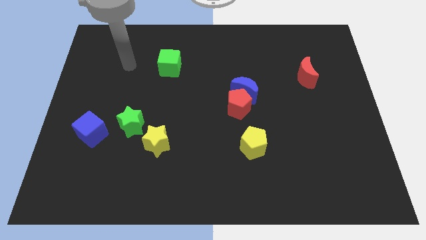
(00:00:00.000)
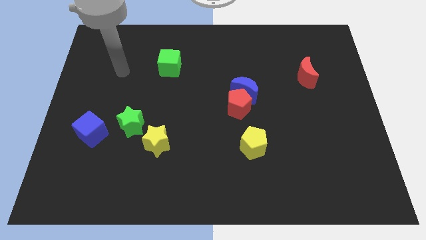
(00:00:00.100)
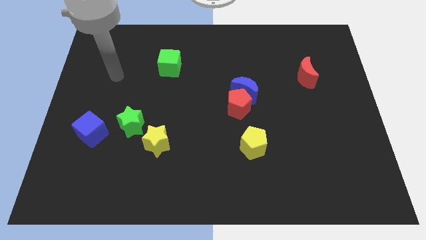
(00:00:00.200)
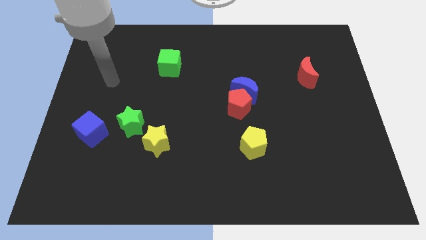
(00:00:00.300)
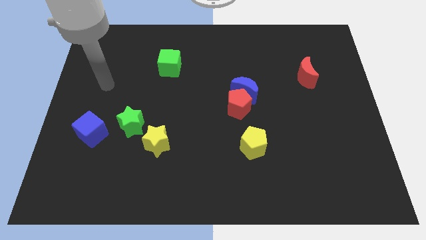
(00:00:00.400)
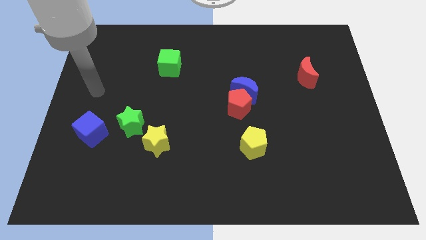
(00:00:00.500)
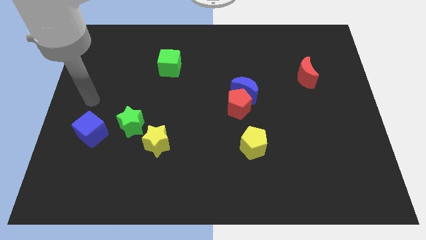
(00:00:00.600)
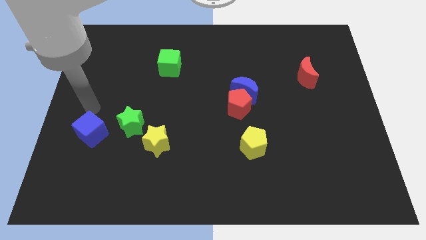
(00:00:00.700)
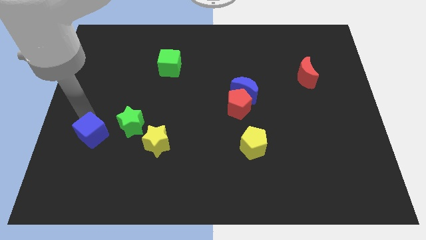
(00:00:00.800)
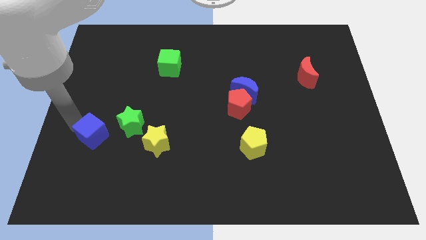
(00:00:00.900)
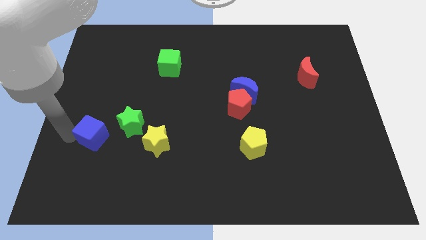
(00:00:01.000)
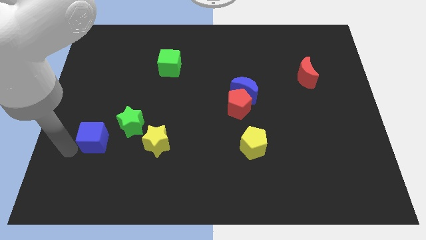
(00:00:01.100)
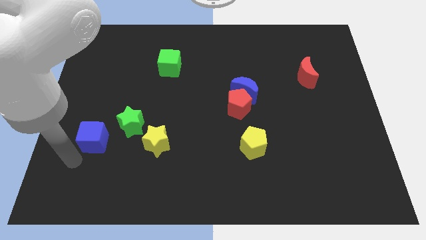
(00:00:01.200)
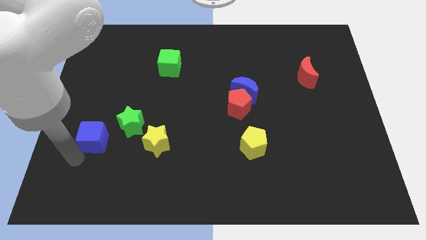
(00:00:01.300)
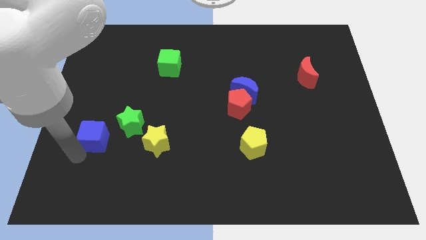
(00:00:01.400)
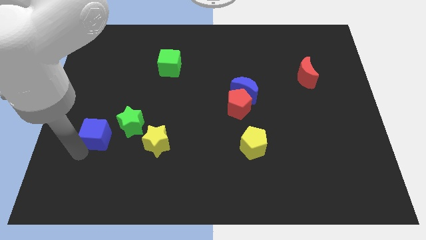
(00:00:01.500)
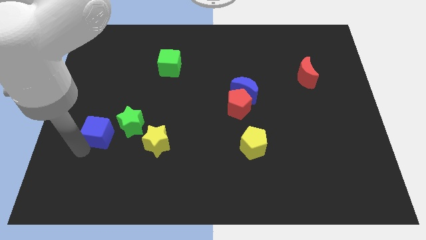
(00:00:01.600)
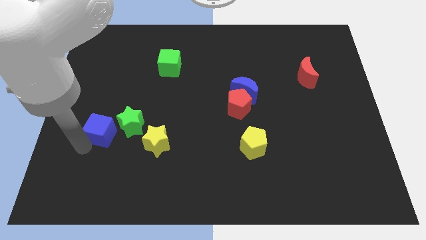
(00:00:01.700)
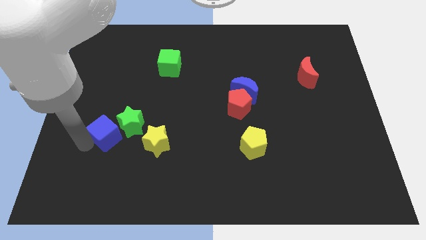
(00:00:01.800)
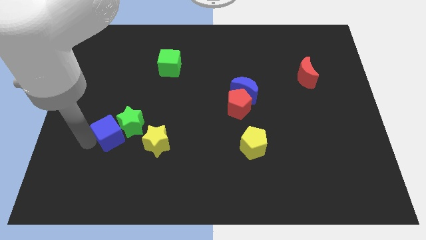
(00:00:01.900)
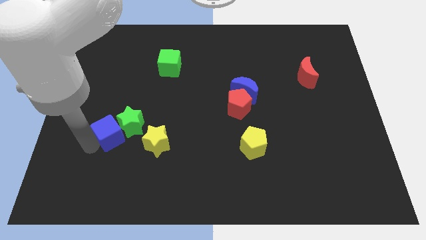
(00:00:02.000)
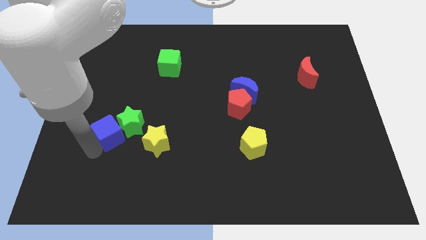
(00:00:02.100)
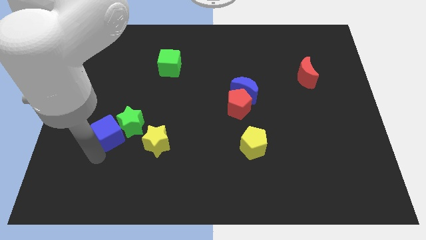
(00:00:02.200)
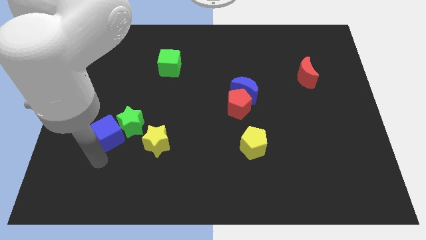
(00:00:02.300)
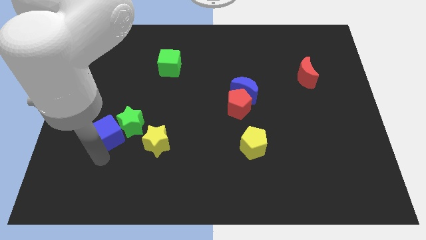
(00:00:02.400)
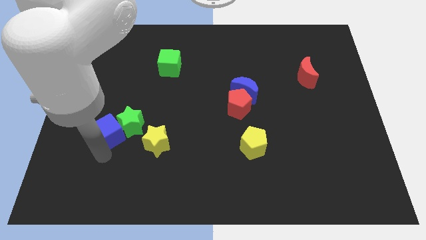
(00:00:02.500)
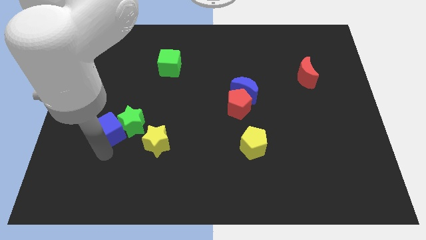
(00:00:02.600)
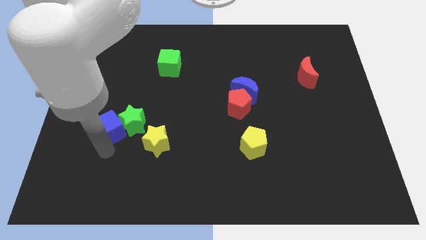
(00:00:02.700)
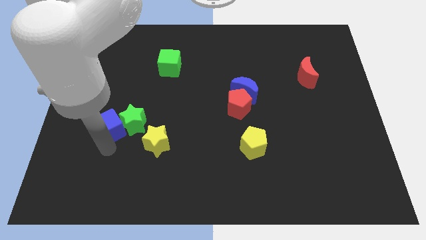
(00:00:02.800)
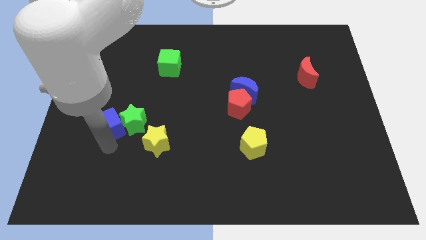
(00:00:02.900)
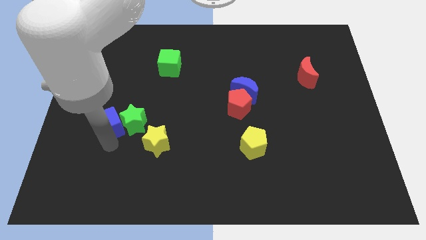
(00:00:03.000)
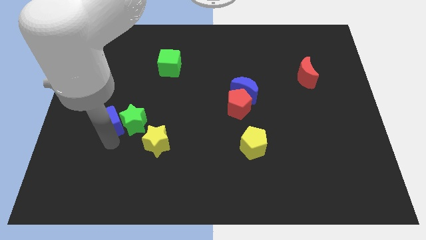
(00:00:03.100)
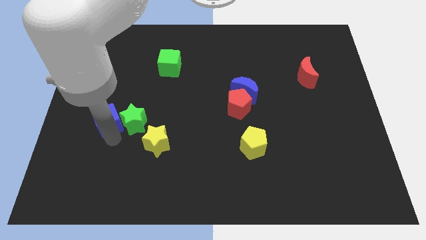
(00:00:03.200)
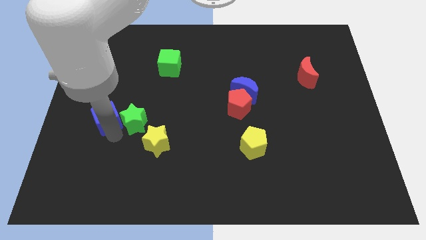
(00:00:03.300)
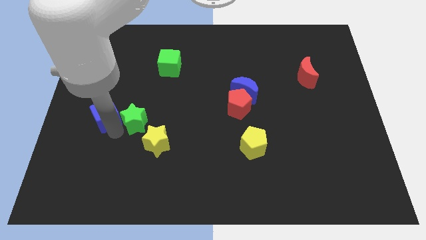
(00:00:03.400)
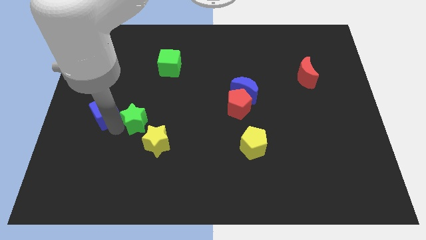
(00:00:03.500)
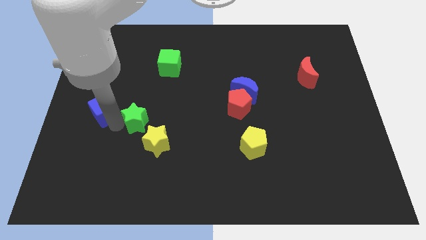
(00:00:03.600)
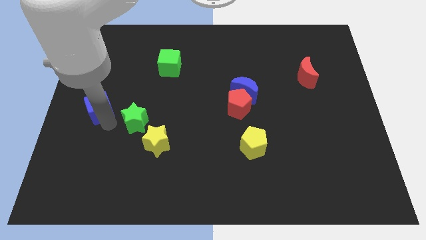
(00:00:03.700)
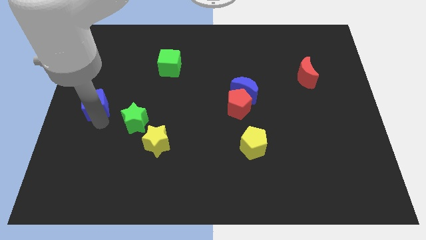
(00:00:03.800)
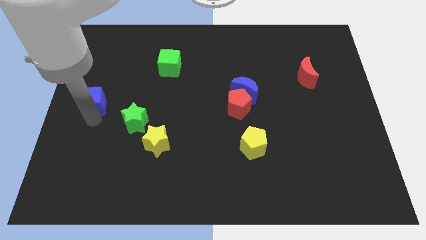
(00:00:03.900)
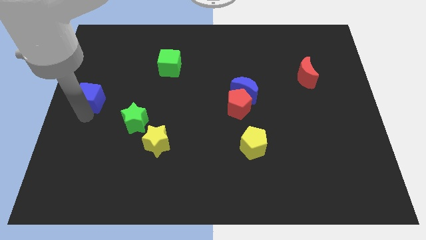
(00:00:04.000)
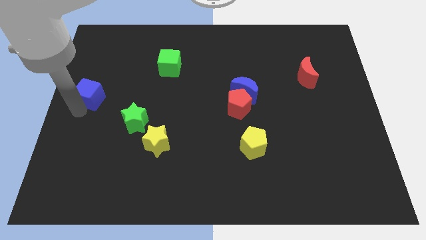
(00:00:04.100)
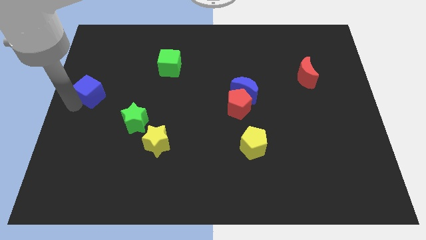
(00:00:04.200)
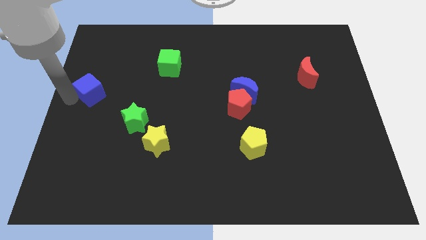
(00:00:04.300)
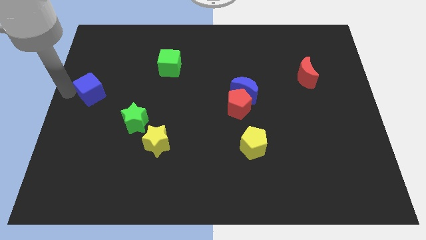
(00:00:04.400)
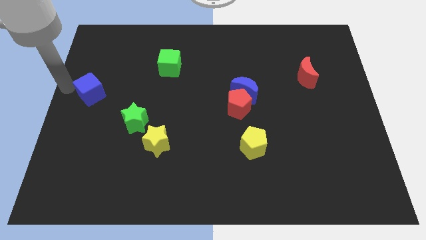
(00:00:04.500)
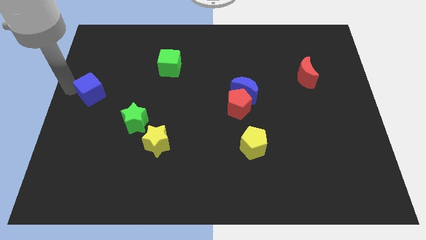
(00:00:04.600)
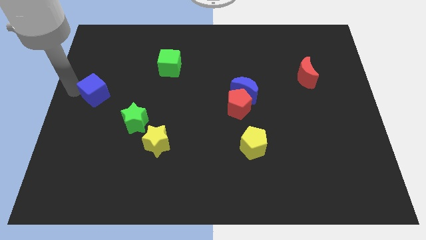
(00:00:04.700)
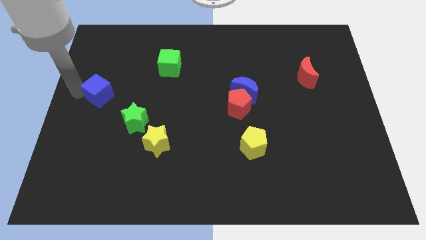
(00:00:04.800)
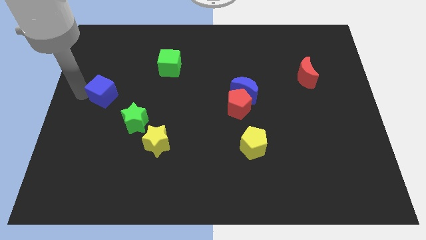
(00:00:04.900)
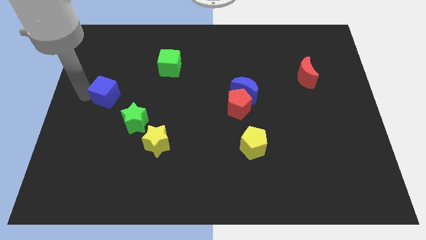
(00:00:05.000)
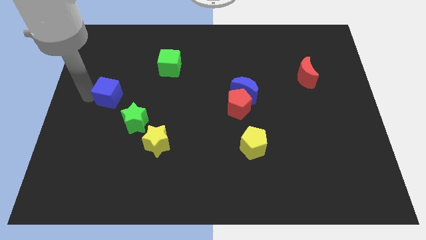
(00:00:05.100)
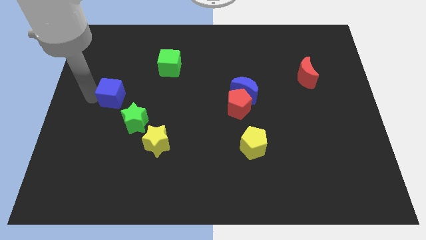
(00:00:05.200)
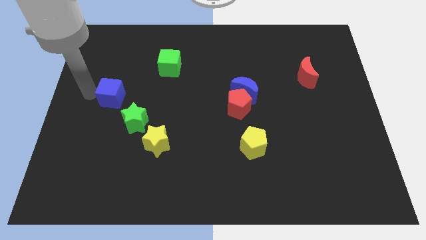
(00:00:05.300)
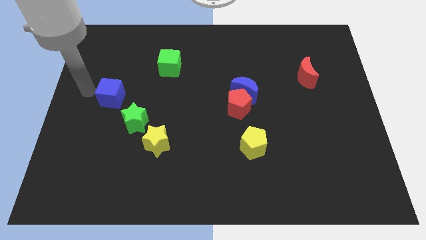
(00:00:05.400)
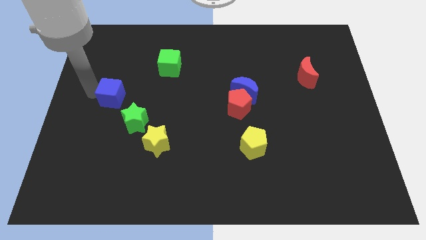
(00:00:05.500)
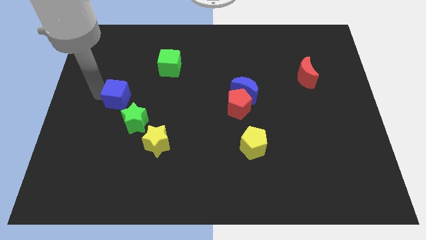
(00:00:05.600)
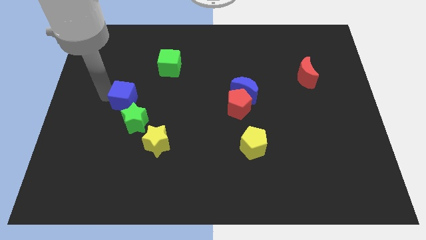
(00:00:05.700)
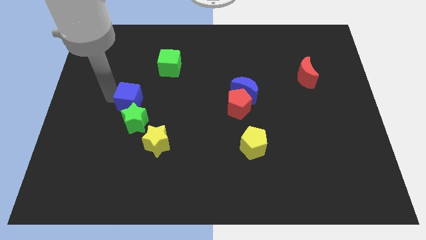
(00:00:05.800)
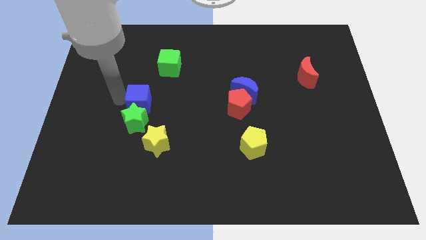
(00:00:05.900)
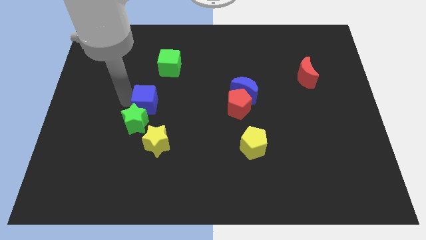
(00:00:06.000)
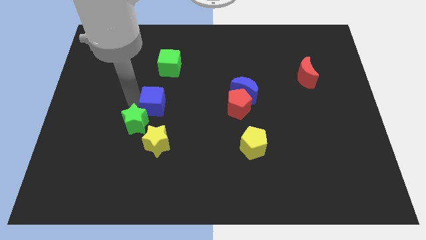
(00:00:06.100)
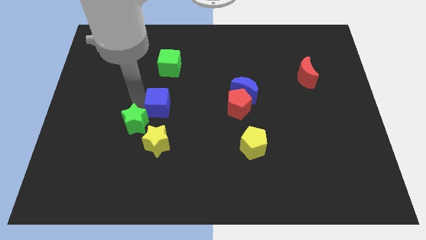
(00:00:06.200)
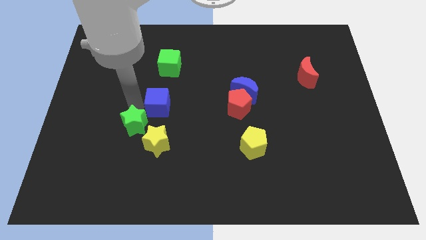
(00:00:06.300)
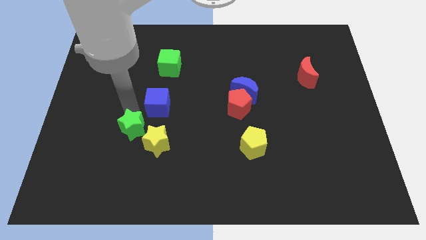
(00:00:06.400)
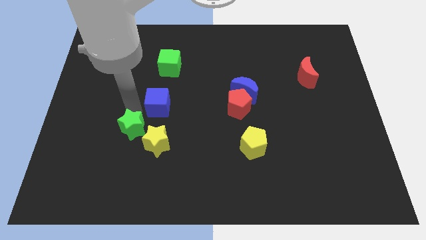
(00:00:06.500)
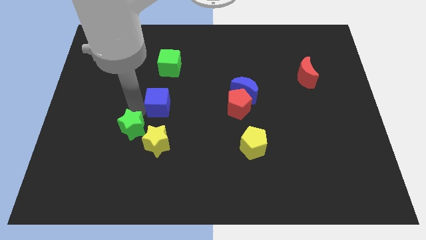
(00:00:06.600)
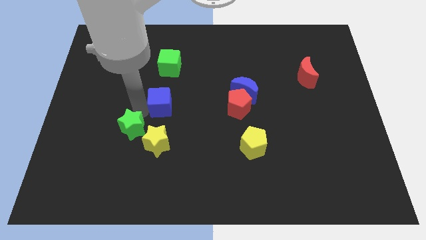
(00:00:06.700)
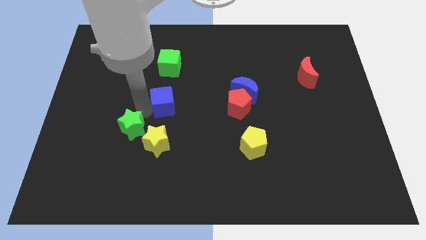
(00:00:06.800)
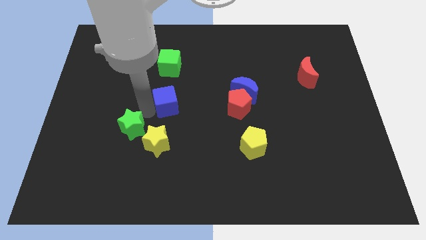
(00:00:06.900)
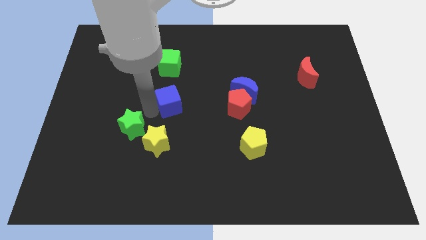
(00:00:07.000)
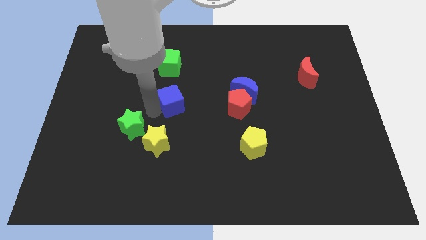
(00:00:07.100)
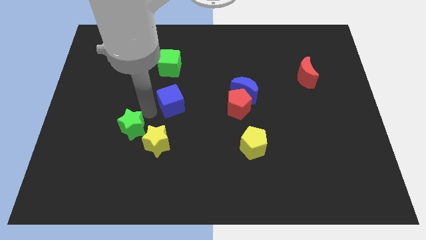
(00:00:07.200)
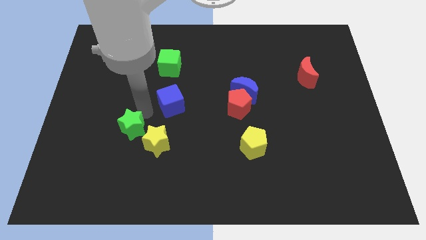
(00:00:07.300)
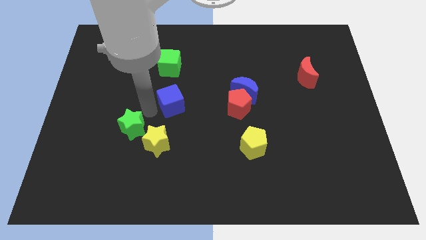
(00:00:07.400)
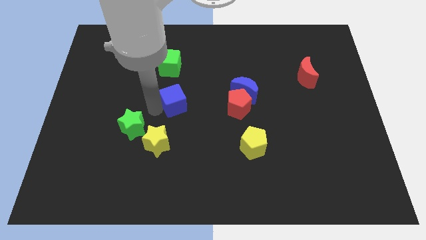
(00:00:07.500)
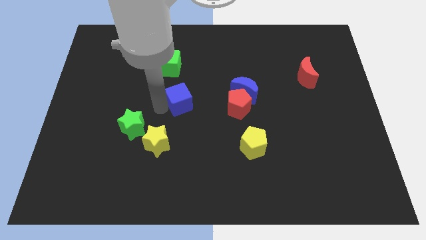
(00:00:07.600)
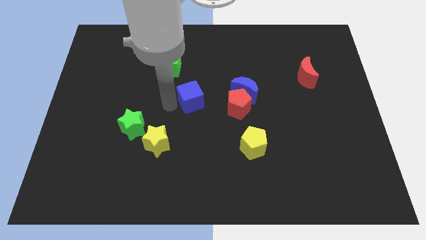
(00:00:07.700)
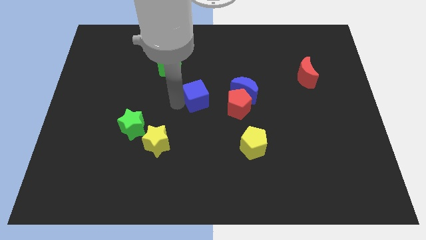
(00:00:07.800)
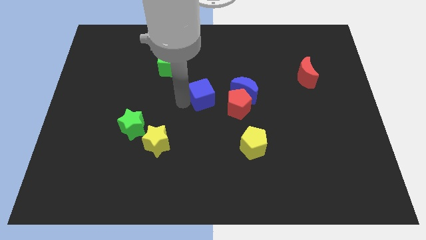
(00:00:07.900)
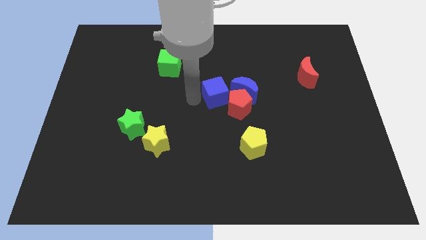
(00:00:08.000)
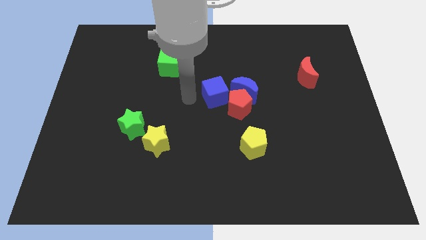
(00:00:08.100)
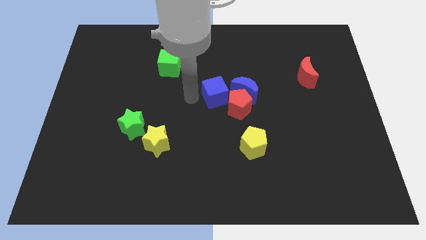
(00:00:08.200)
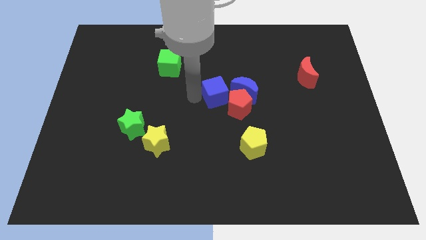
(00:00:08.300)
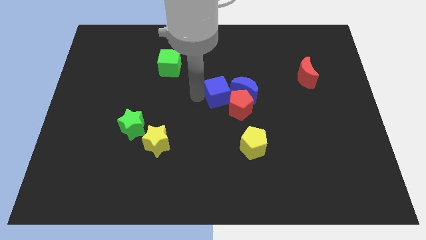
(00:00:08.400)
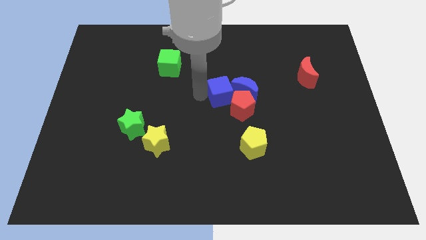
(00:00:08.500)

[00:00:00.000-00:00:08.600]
move the blue cube next to the blue moon
